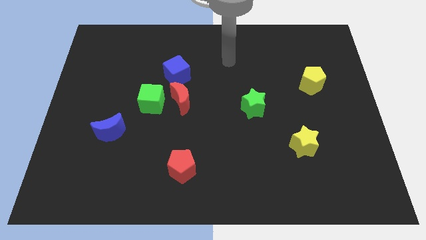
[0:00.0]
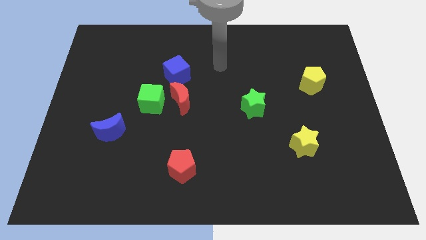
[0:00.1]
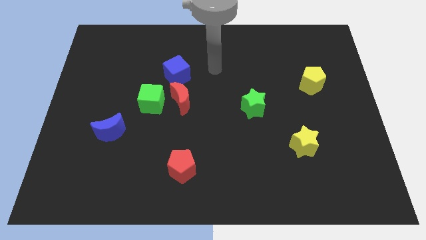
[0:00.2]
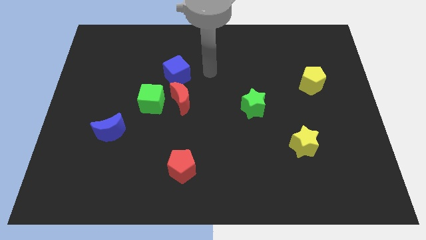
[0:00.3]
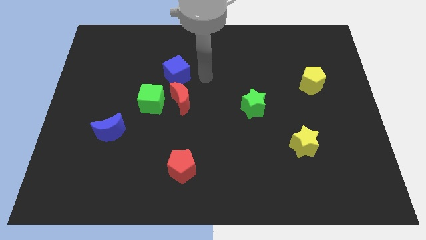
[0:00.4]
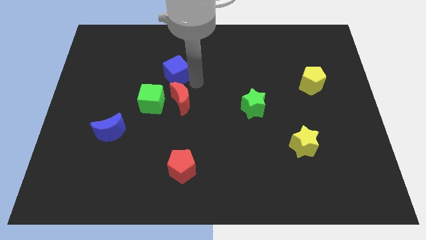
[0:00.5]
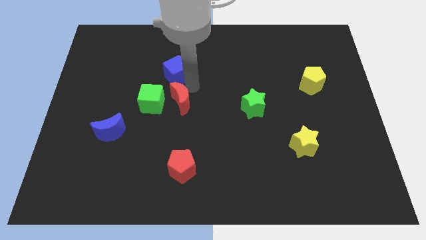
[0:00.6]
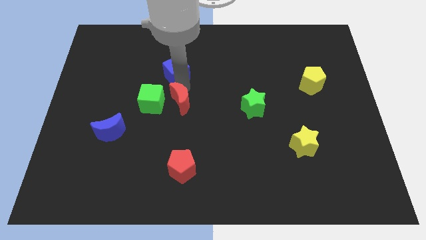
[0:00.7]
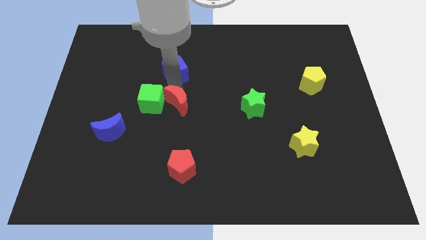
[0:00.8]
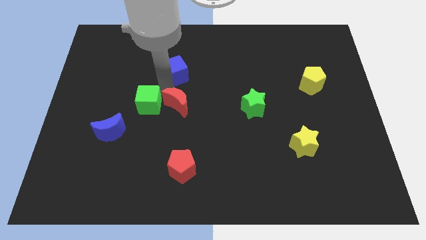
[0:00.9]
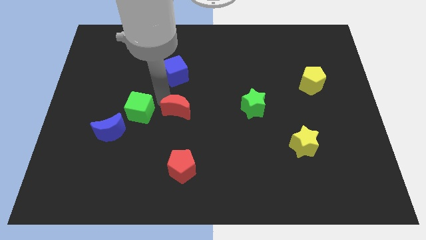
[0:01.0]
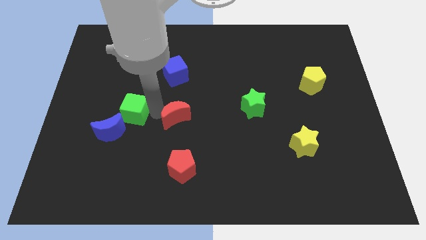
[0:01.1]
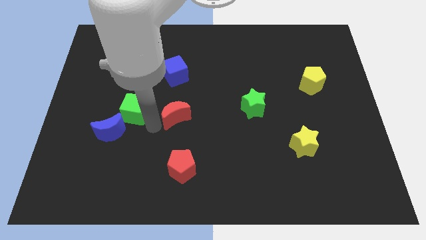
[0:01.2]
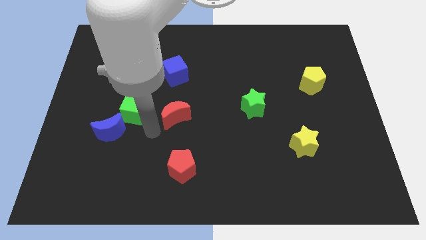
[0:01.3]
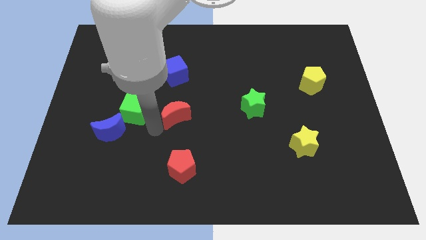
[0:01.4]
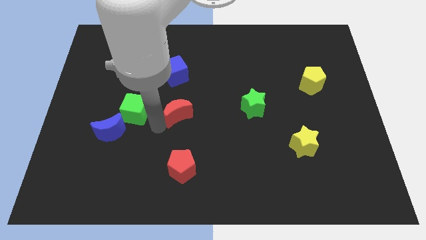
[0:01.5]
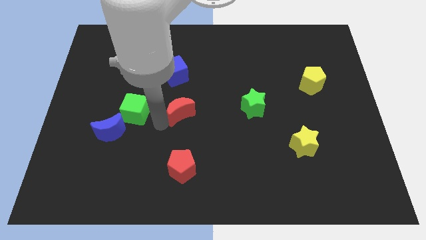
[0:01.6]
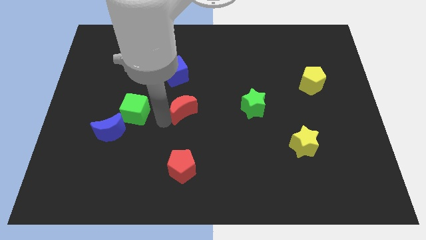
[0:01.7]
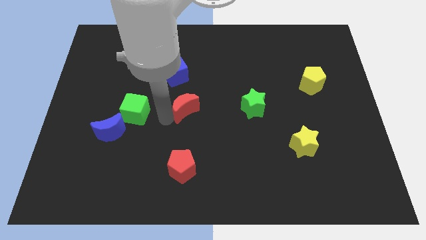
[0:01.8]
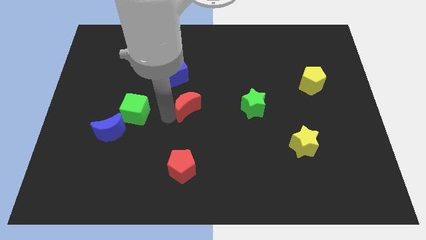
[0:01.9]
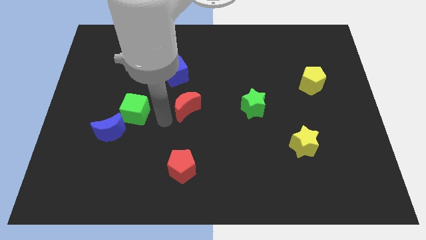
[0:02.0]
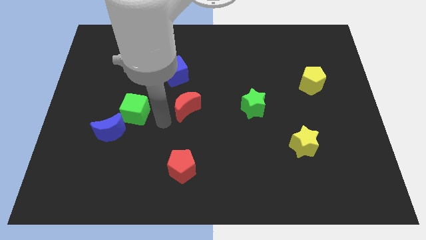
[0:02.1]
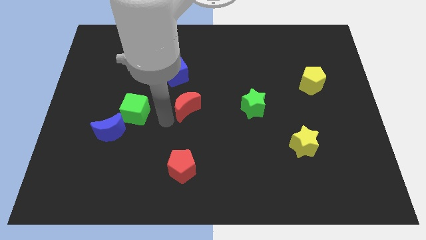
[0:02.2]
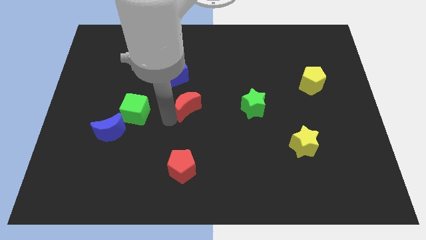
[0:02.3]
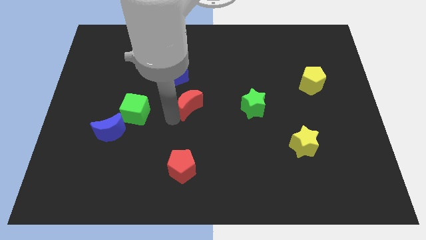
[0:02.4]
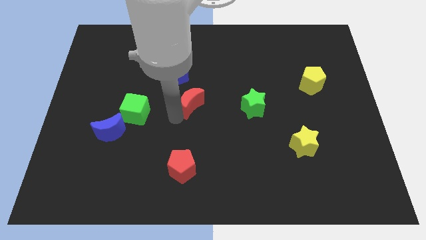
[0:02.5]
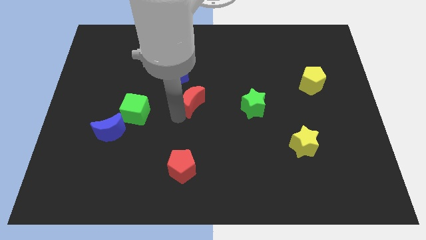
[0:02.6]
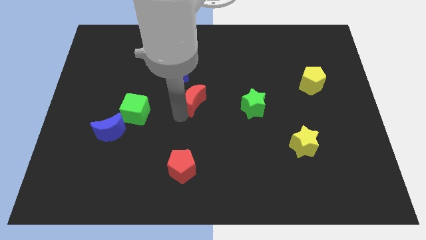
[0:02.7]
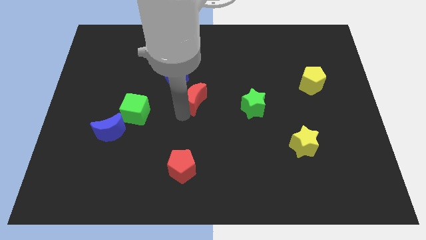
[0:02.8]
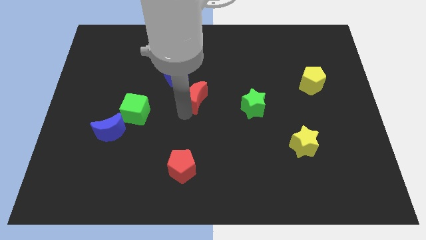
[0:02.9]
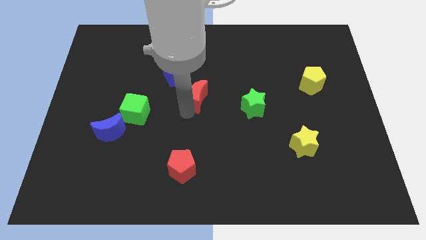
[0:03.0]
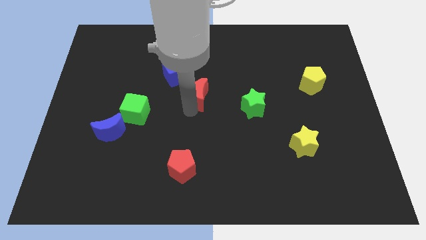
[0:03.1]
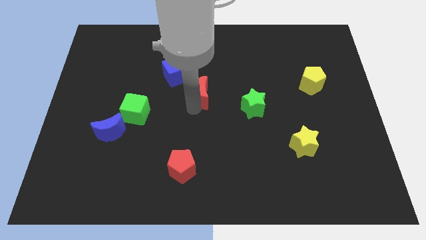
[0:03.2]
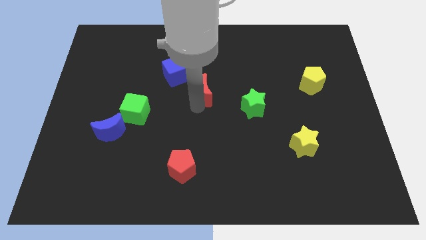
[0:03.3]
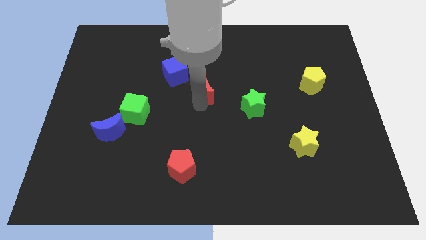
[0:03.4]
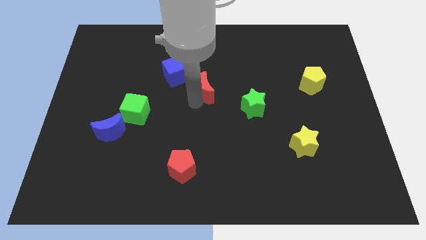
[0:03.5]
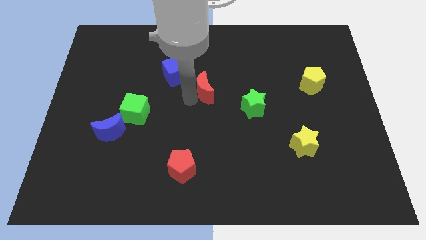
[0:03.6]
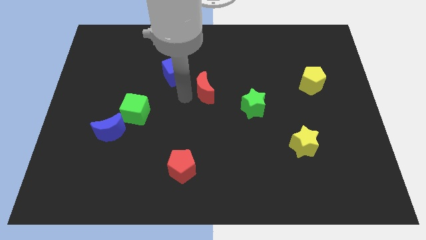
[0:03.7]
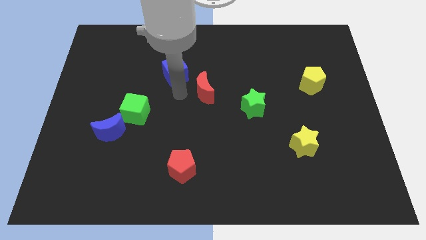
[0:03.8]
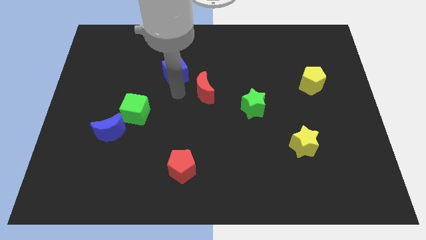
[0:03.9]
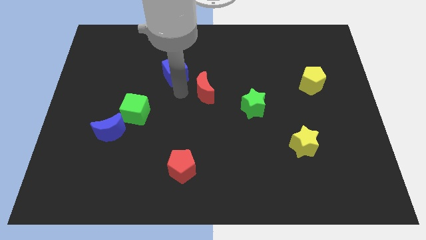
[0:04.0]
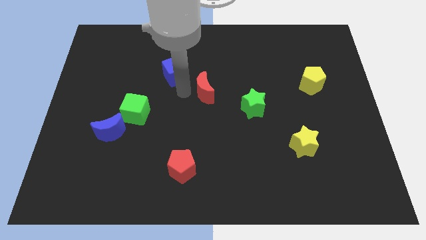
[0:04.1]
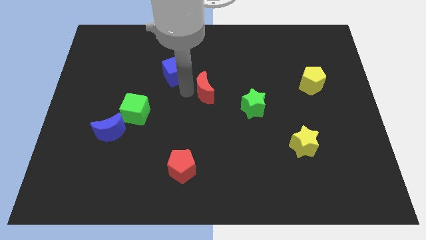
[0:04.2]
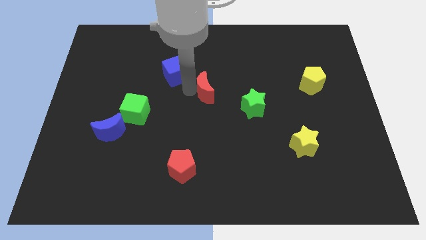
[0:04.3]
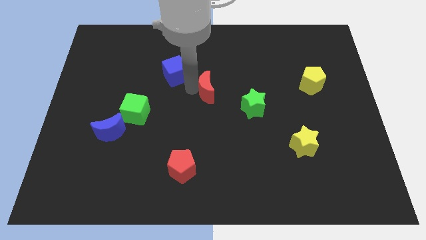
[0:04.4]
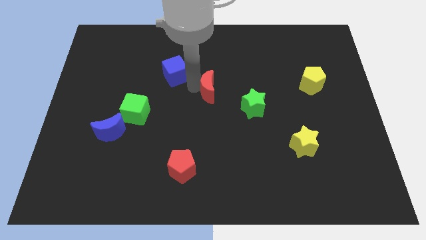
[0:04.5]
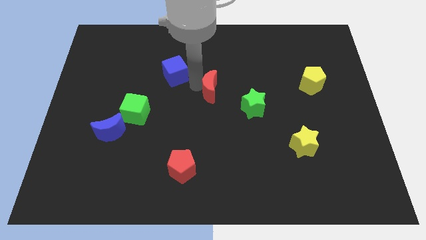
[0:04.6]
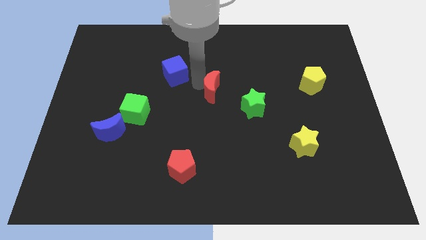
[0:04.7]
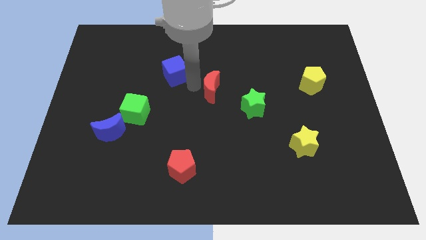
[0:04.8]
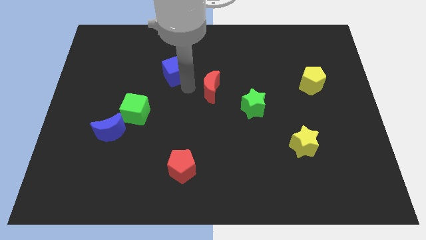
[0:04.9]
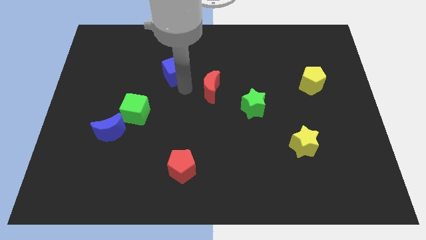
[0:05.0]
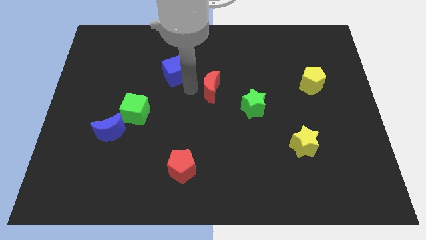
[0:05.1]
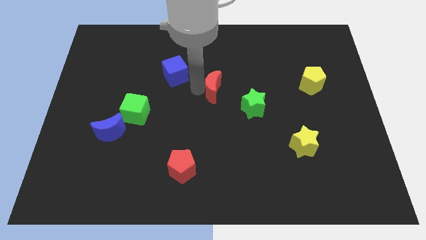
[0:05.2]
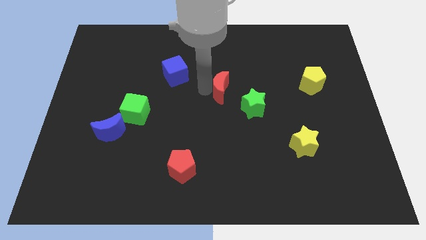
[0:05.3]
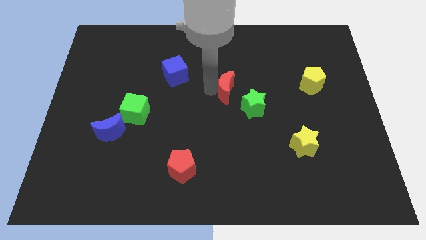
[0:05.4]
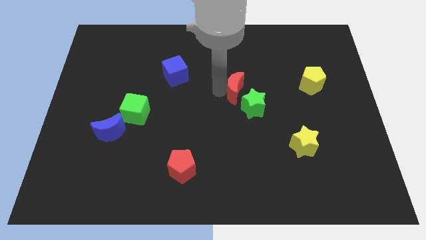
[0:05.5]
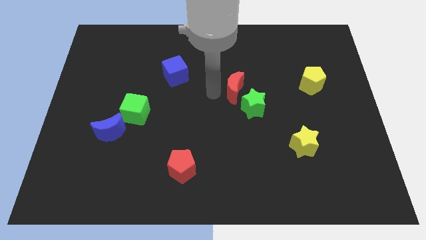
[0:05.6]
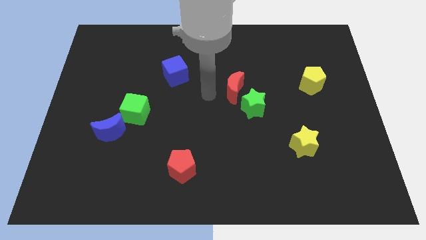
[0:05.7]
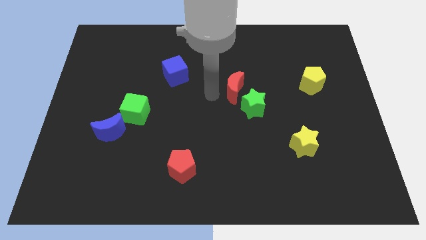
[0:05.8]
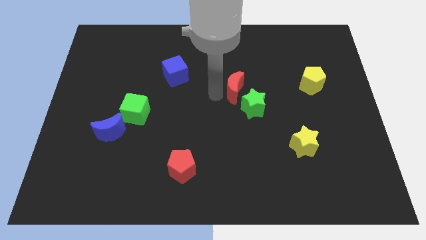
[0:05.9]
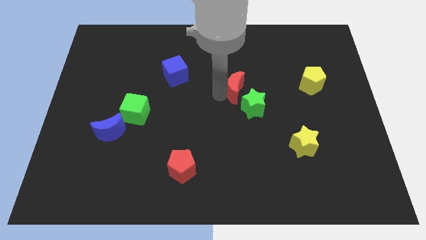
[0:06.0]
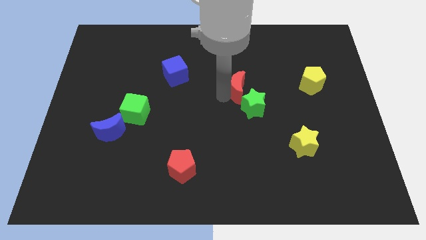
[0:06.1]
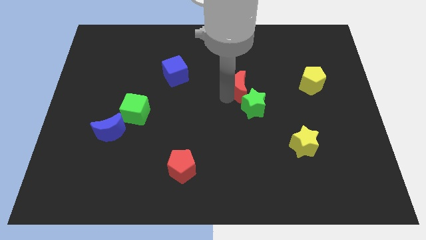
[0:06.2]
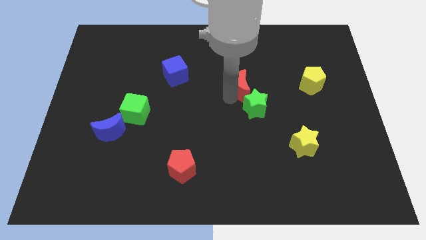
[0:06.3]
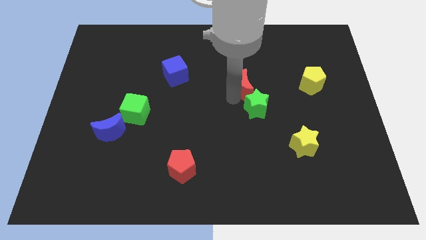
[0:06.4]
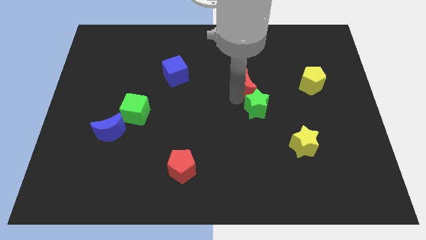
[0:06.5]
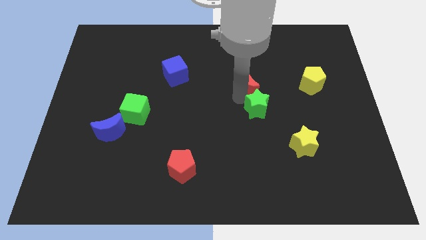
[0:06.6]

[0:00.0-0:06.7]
slide the red moon left of the yellow pentagon

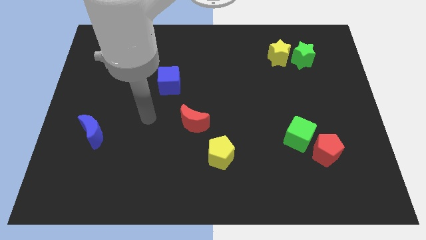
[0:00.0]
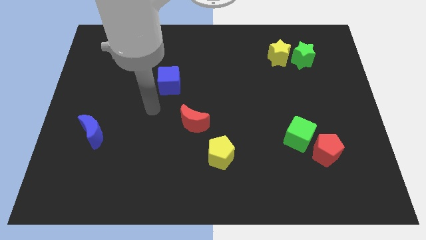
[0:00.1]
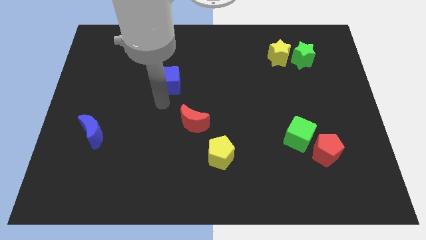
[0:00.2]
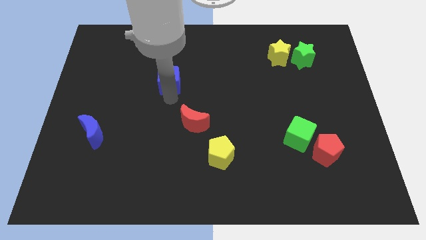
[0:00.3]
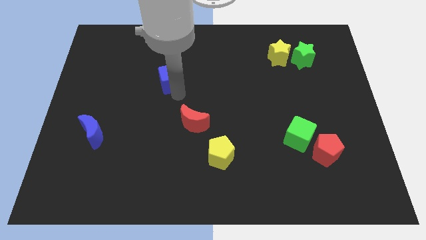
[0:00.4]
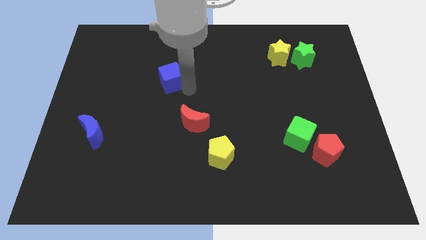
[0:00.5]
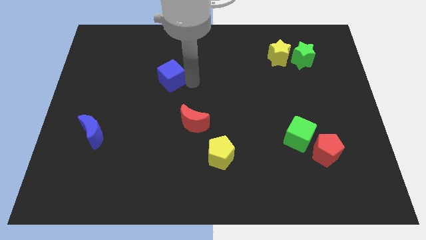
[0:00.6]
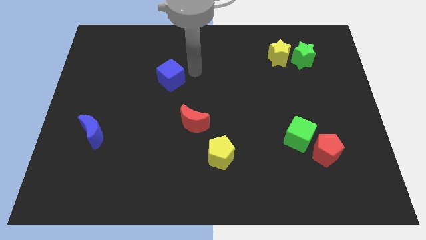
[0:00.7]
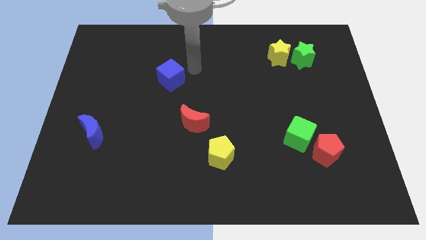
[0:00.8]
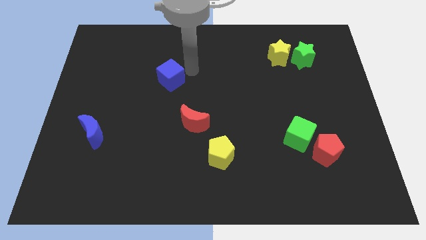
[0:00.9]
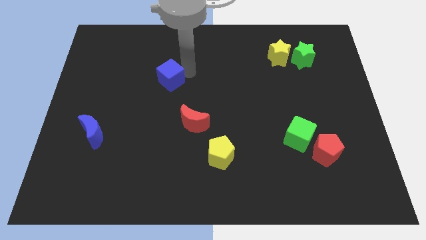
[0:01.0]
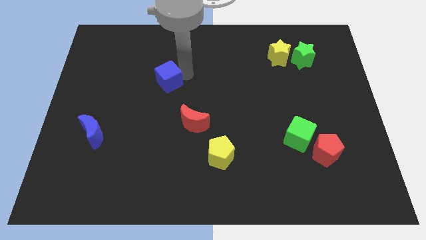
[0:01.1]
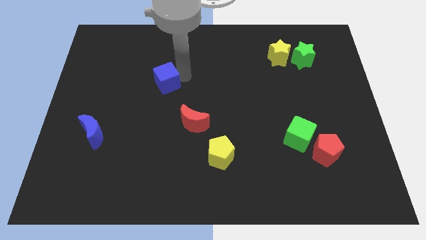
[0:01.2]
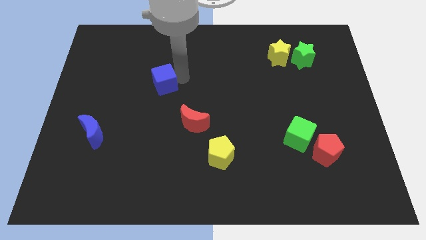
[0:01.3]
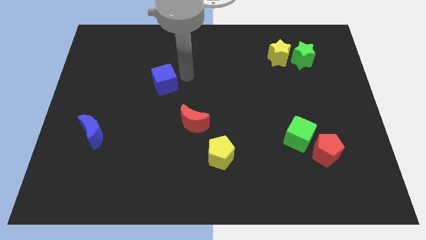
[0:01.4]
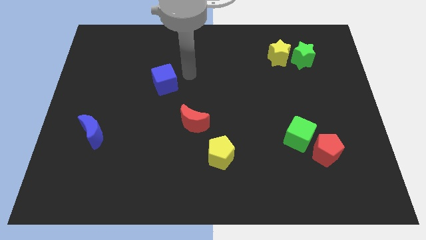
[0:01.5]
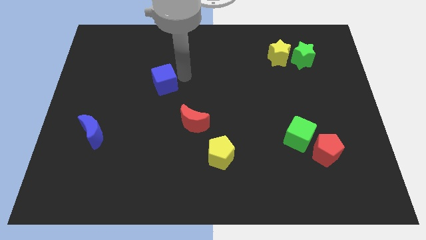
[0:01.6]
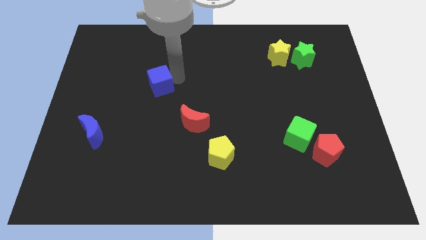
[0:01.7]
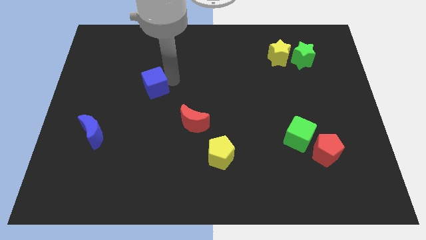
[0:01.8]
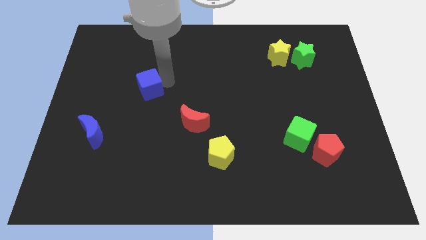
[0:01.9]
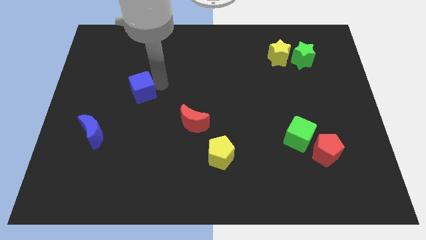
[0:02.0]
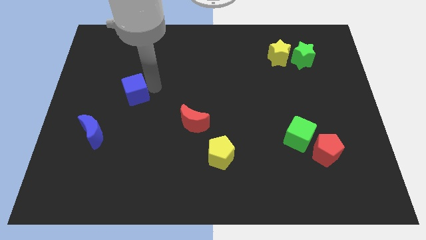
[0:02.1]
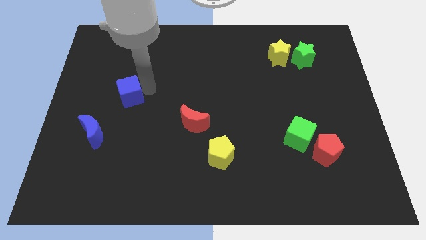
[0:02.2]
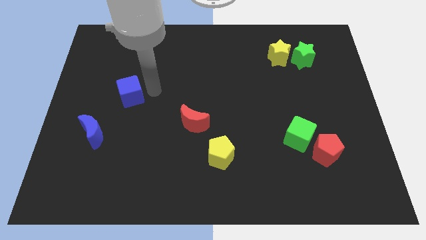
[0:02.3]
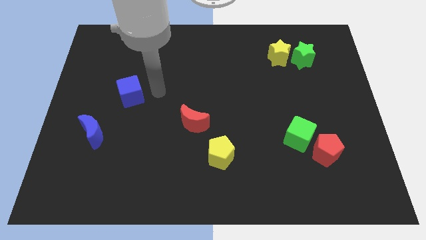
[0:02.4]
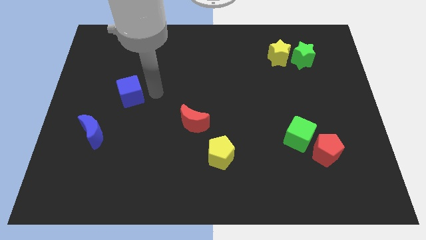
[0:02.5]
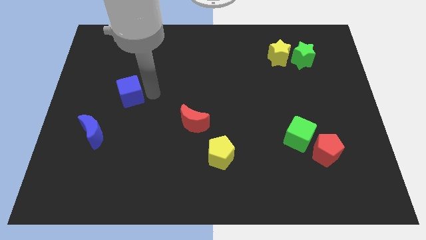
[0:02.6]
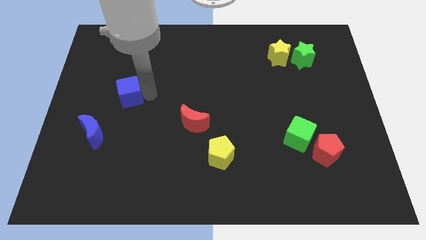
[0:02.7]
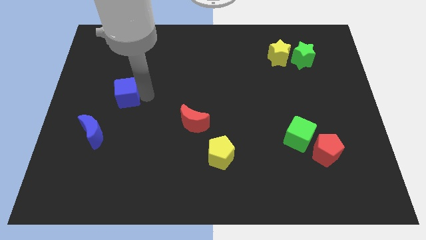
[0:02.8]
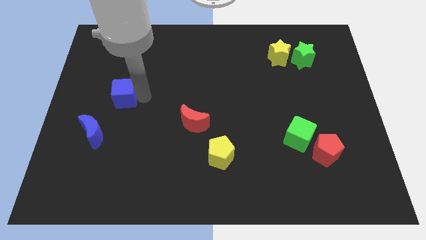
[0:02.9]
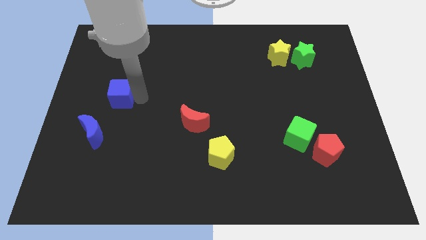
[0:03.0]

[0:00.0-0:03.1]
put the blue cube to the top side of the blue moon
